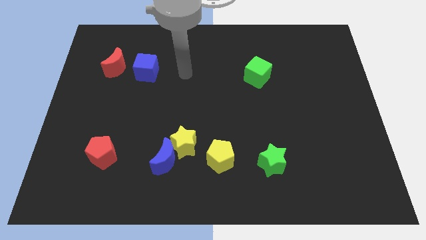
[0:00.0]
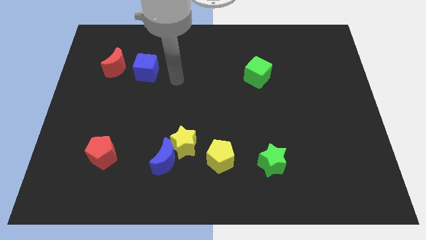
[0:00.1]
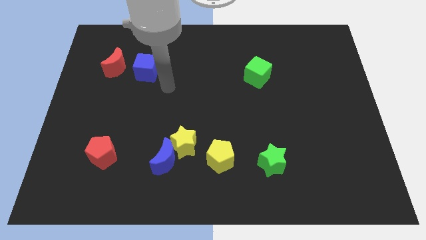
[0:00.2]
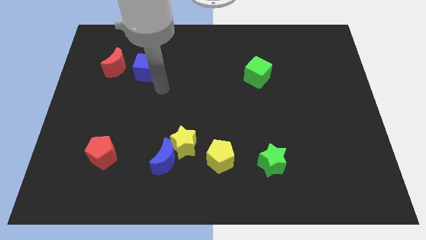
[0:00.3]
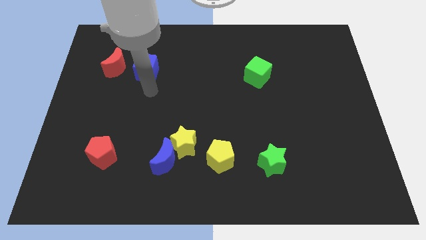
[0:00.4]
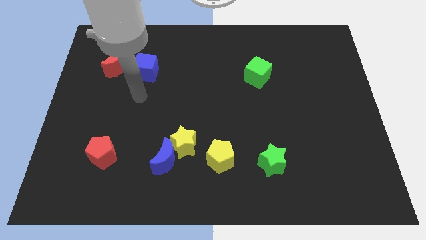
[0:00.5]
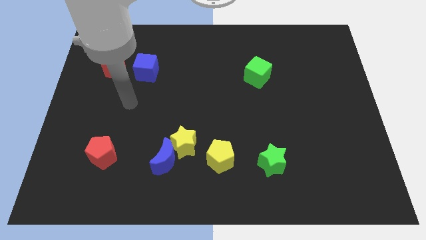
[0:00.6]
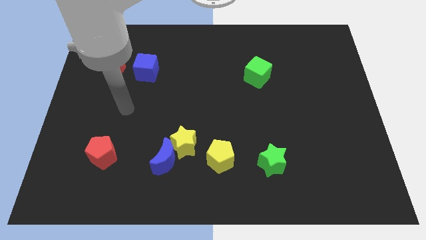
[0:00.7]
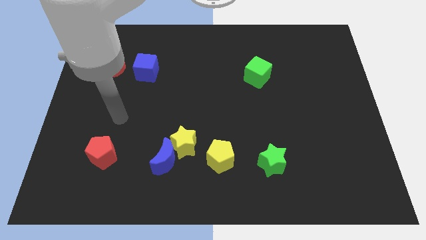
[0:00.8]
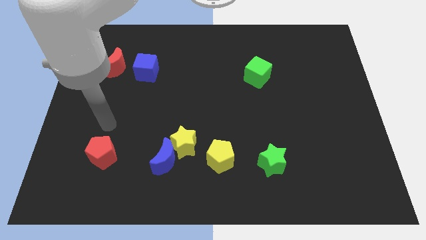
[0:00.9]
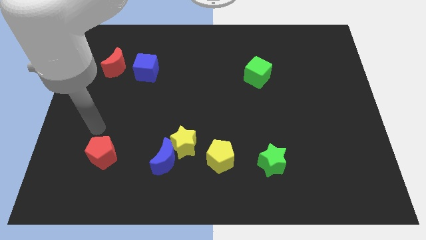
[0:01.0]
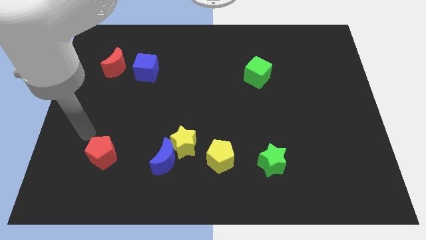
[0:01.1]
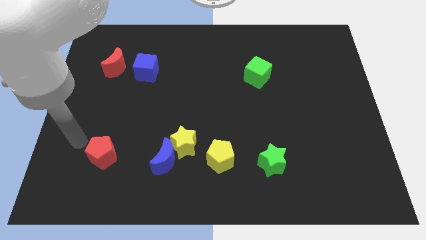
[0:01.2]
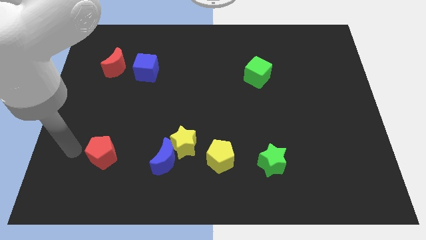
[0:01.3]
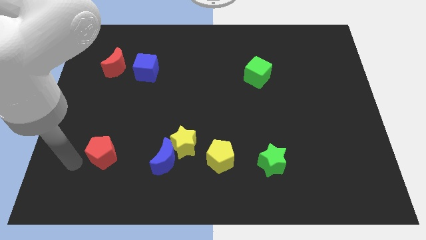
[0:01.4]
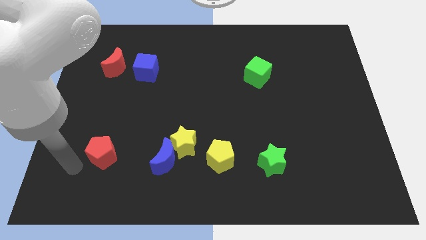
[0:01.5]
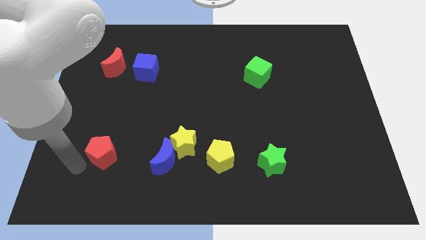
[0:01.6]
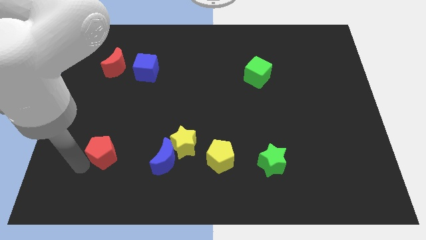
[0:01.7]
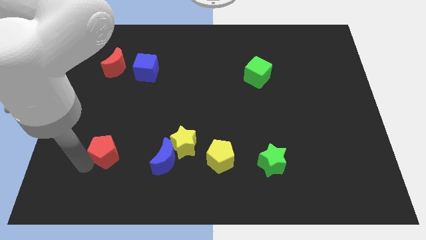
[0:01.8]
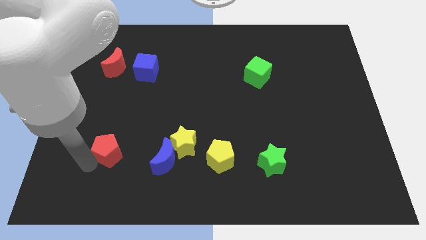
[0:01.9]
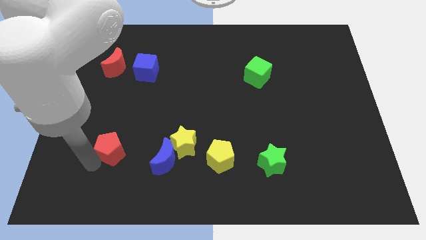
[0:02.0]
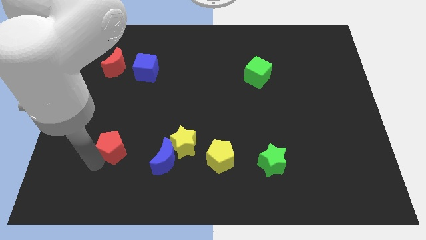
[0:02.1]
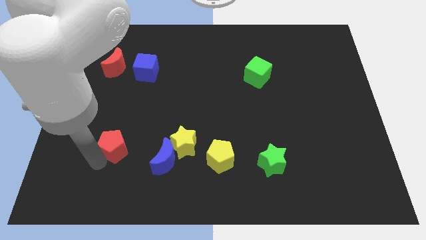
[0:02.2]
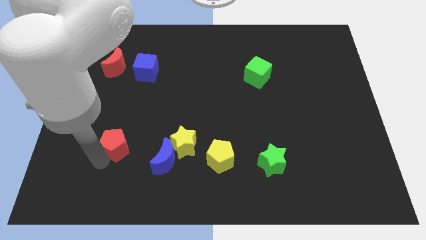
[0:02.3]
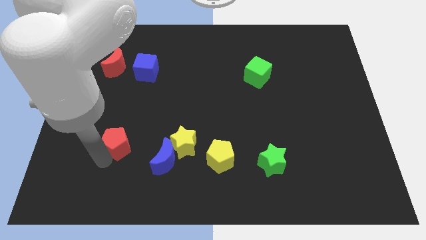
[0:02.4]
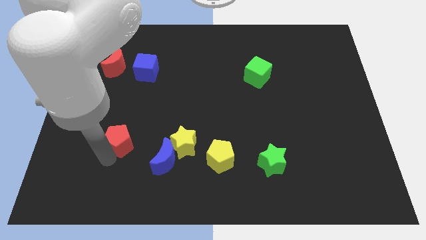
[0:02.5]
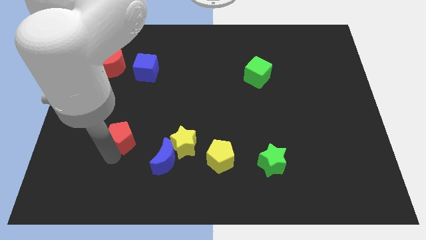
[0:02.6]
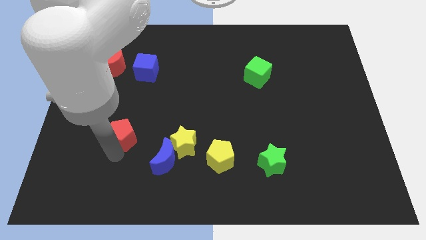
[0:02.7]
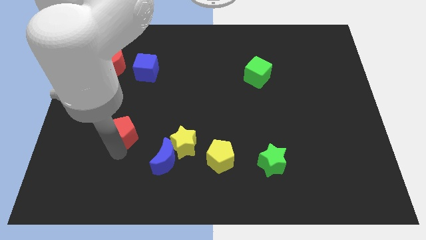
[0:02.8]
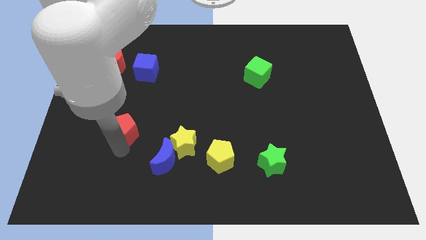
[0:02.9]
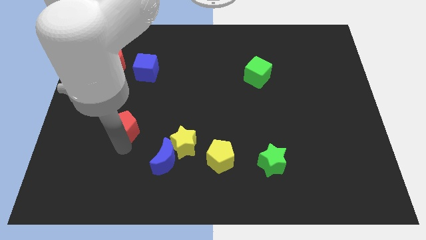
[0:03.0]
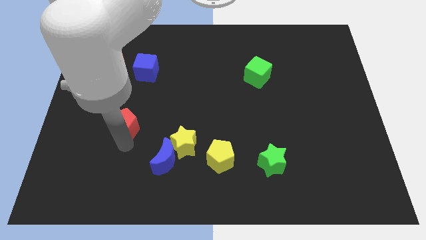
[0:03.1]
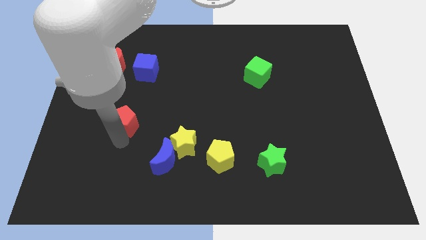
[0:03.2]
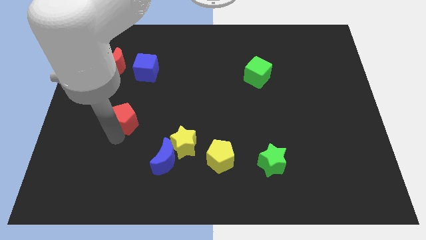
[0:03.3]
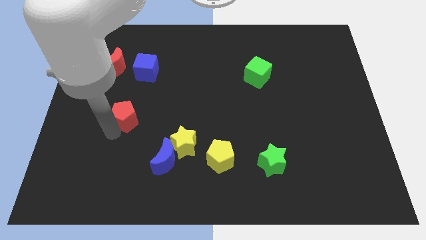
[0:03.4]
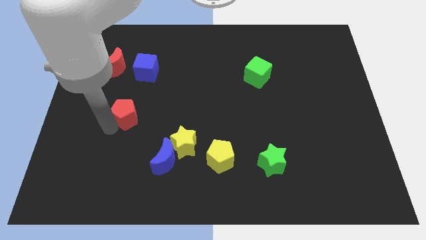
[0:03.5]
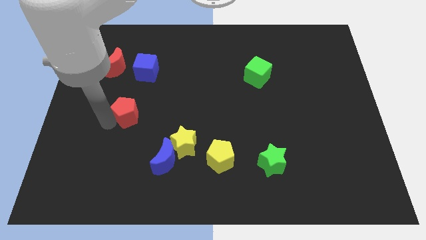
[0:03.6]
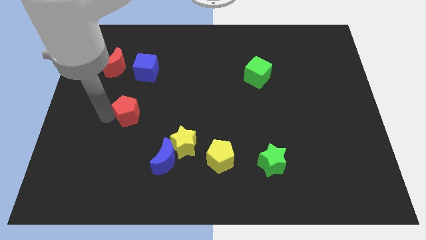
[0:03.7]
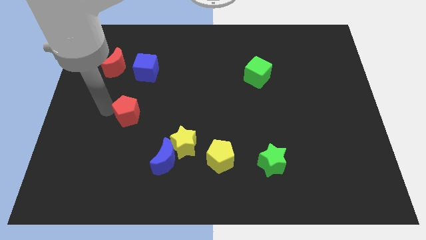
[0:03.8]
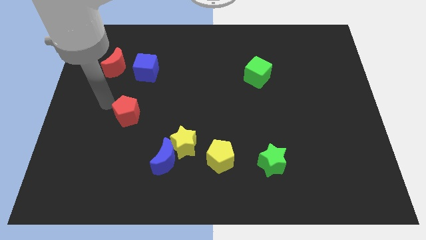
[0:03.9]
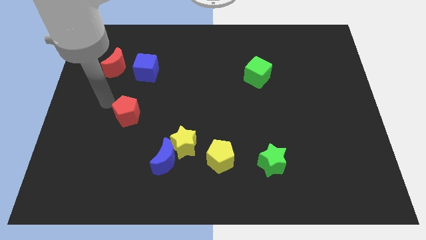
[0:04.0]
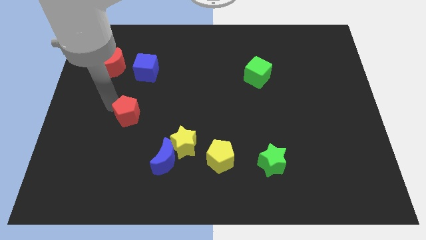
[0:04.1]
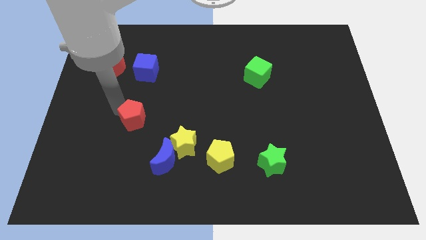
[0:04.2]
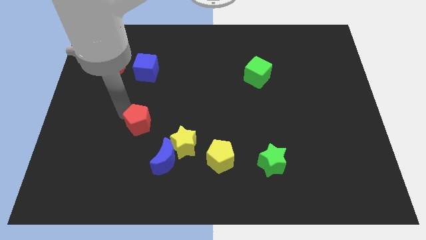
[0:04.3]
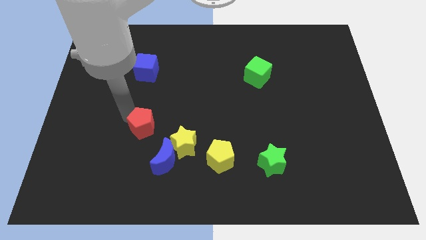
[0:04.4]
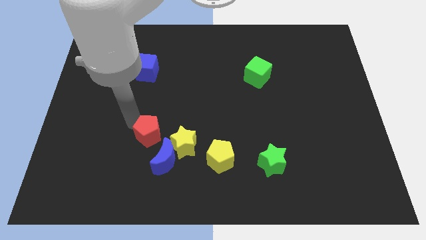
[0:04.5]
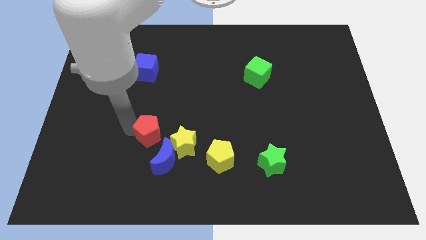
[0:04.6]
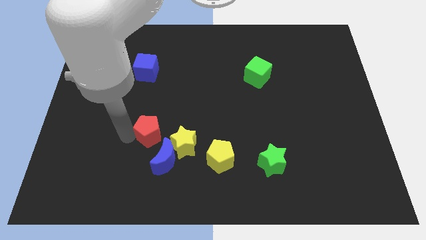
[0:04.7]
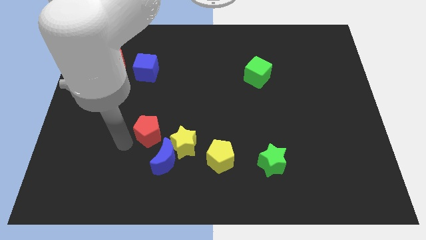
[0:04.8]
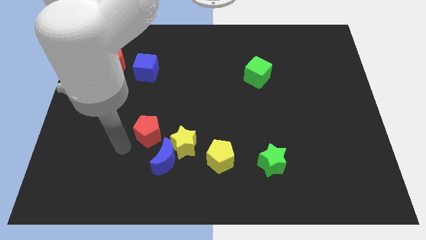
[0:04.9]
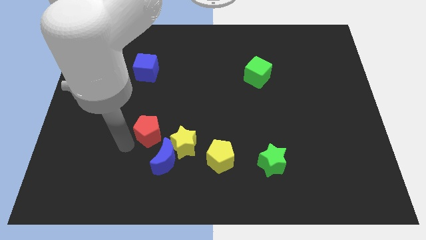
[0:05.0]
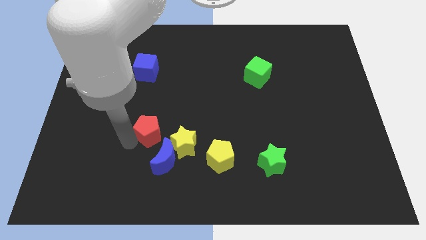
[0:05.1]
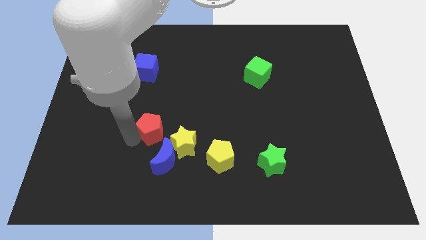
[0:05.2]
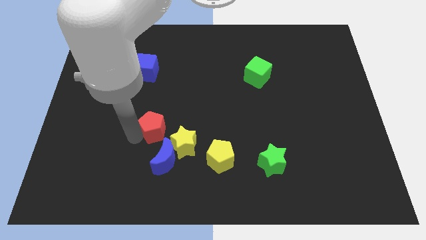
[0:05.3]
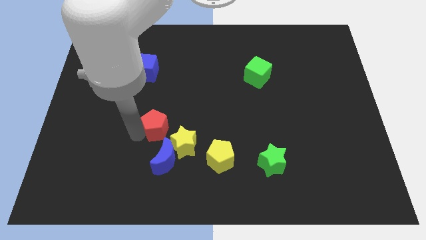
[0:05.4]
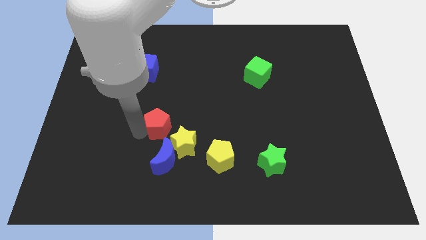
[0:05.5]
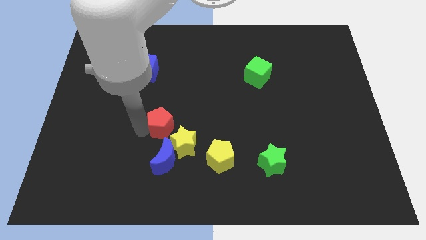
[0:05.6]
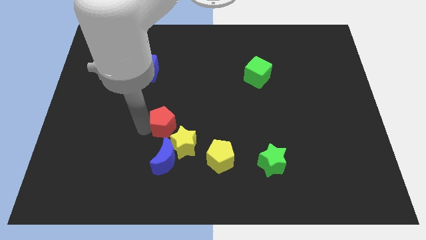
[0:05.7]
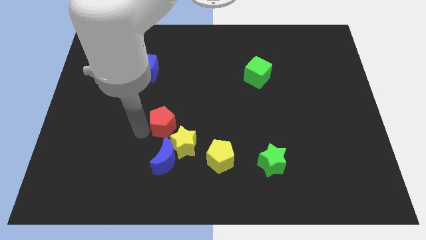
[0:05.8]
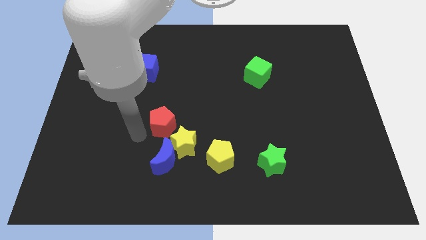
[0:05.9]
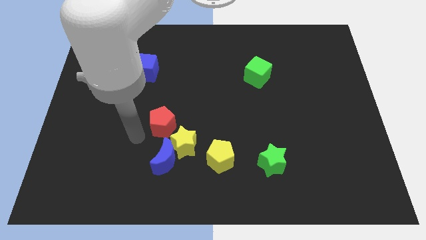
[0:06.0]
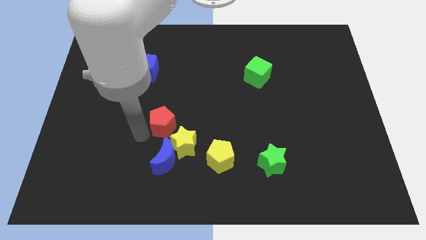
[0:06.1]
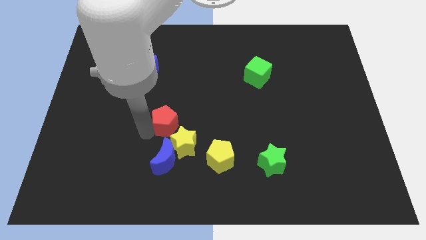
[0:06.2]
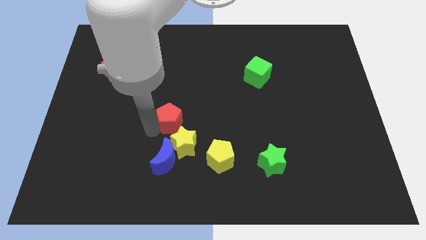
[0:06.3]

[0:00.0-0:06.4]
slide the red pentagon to the center
